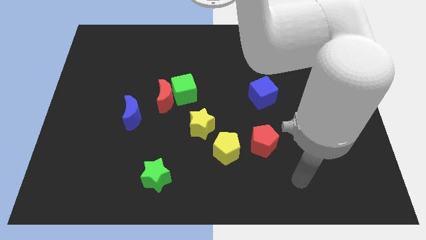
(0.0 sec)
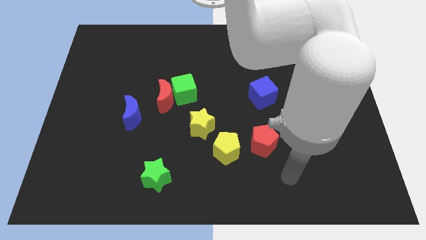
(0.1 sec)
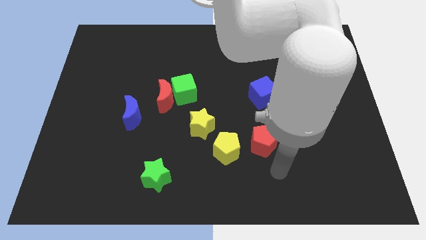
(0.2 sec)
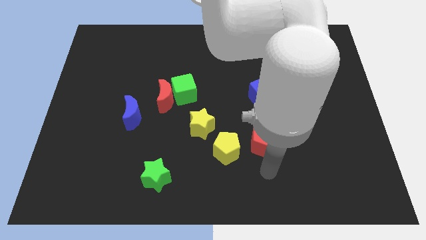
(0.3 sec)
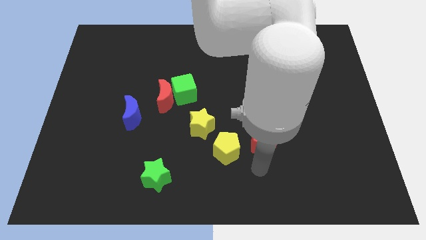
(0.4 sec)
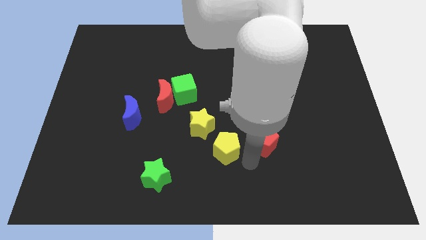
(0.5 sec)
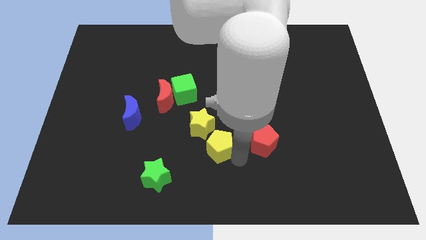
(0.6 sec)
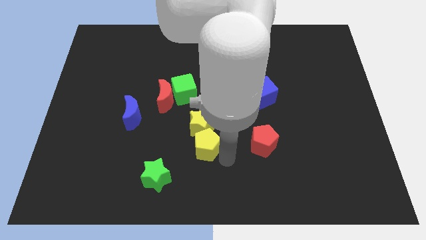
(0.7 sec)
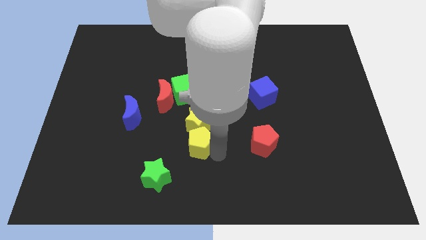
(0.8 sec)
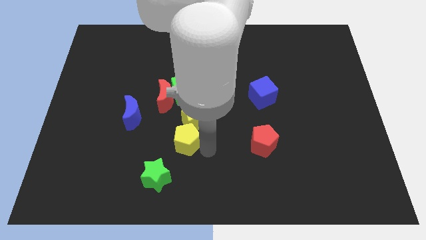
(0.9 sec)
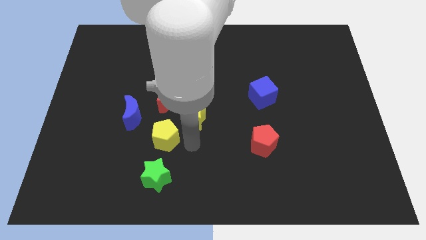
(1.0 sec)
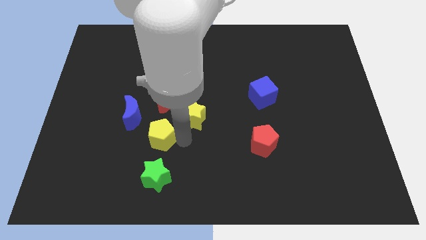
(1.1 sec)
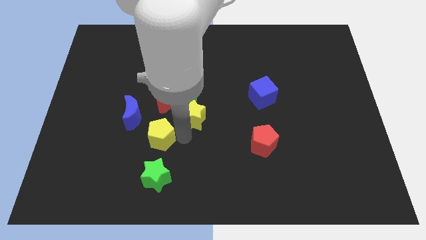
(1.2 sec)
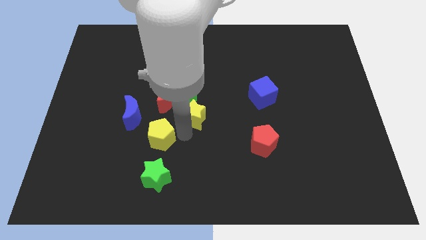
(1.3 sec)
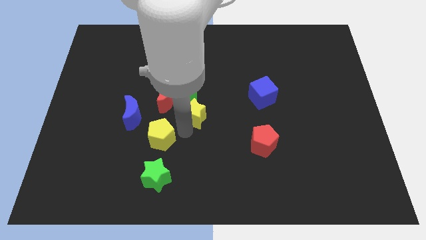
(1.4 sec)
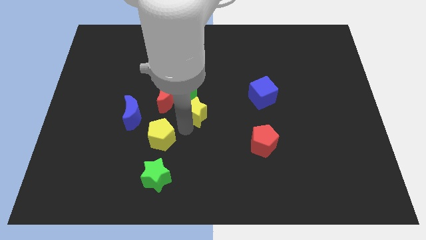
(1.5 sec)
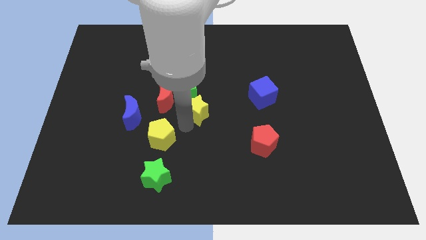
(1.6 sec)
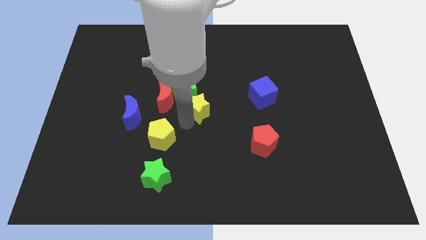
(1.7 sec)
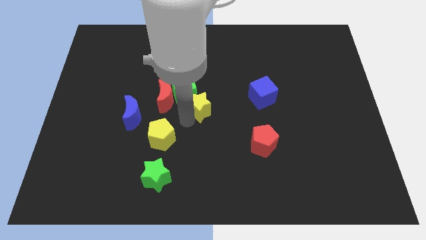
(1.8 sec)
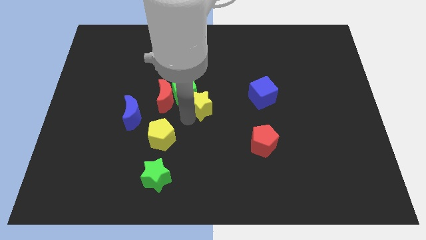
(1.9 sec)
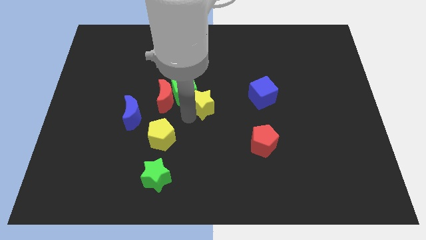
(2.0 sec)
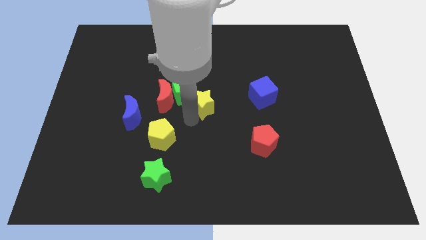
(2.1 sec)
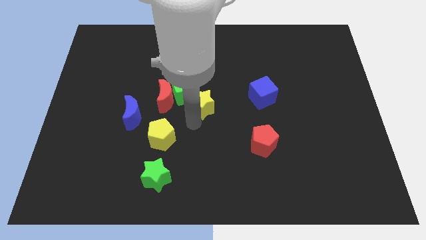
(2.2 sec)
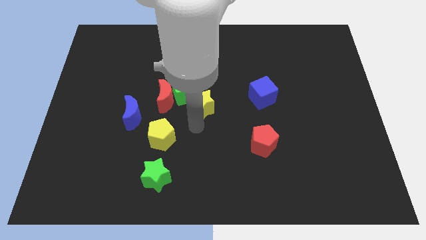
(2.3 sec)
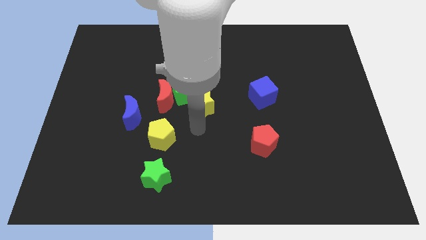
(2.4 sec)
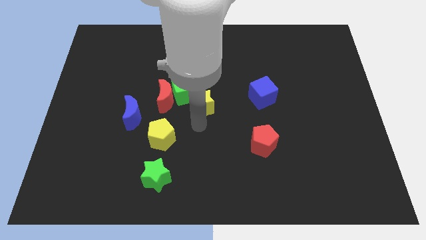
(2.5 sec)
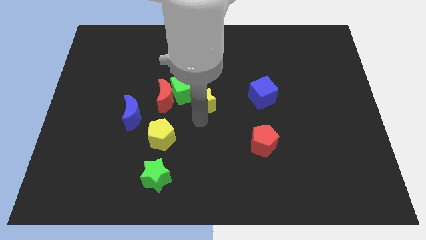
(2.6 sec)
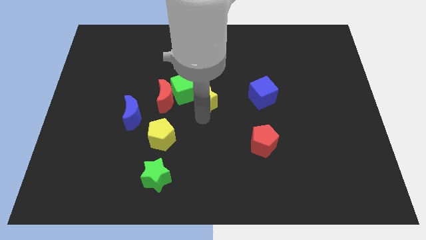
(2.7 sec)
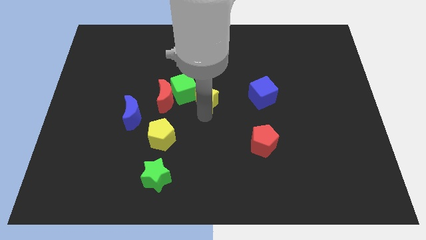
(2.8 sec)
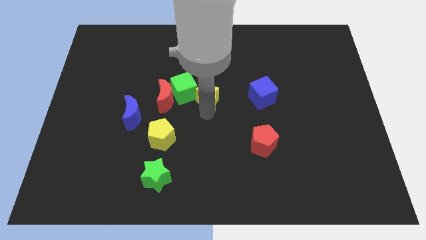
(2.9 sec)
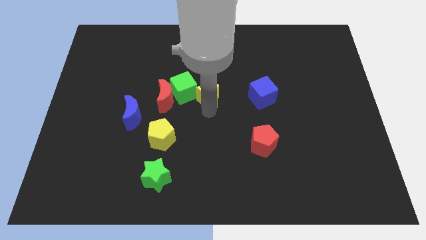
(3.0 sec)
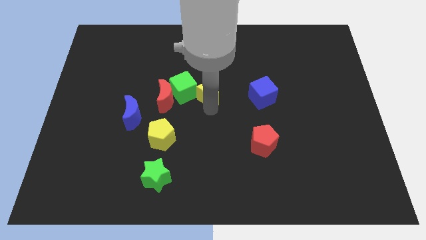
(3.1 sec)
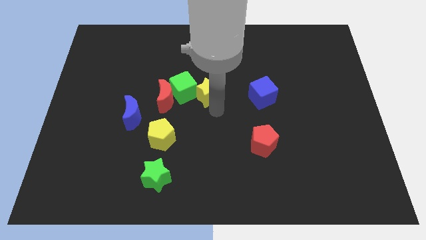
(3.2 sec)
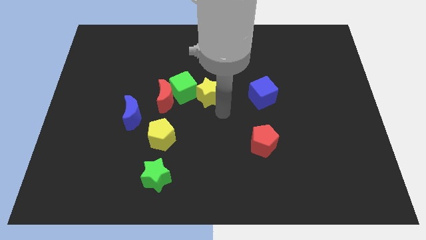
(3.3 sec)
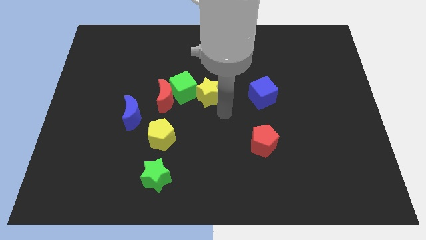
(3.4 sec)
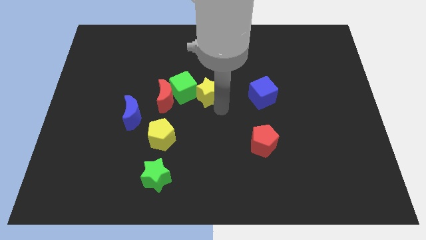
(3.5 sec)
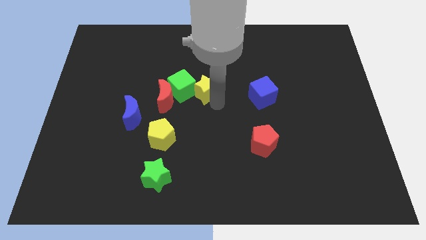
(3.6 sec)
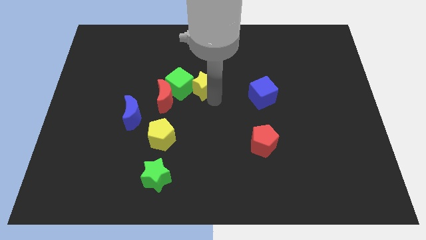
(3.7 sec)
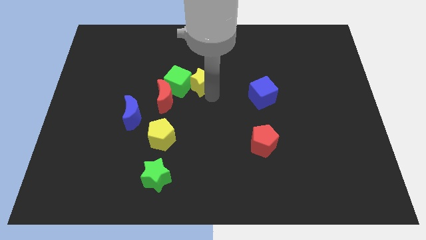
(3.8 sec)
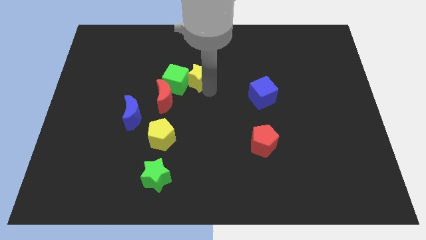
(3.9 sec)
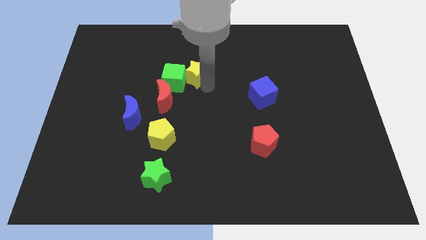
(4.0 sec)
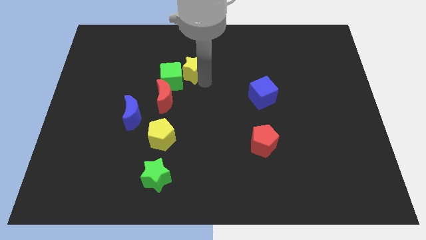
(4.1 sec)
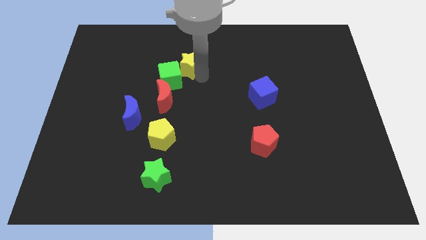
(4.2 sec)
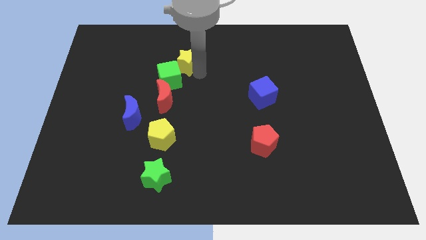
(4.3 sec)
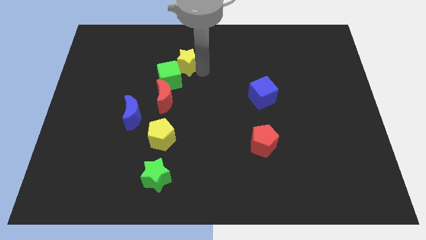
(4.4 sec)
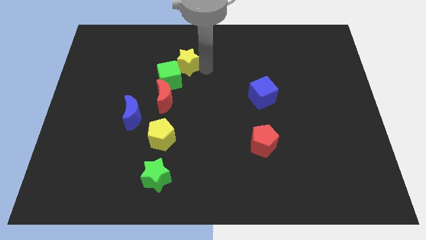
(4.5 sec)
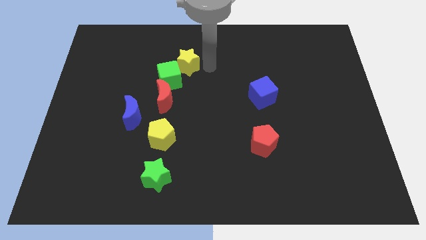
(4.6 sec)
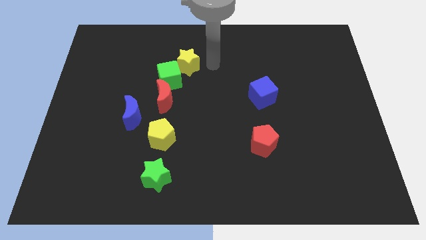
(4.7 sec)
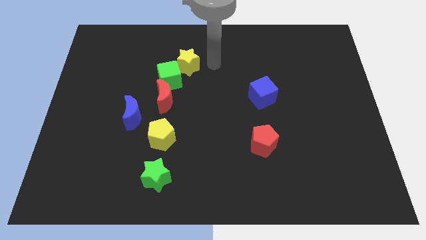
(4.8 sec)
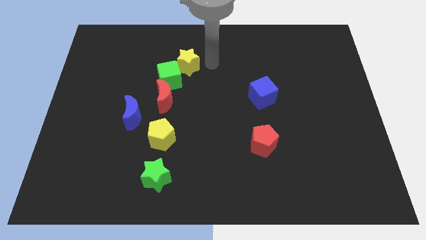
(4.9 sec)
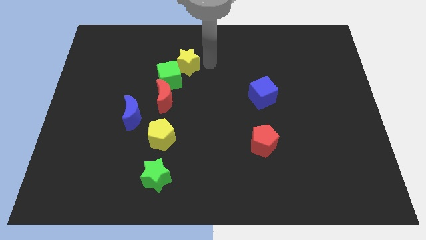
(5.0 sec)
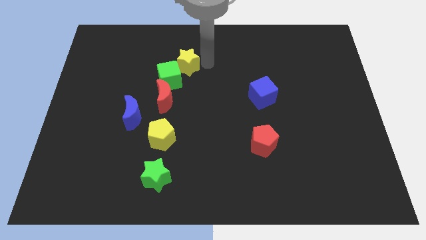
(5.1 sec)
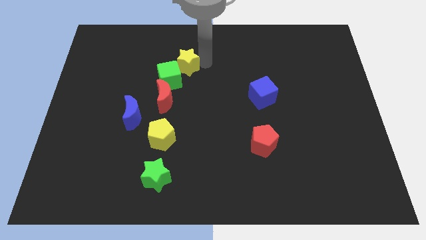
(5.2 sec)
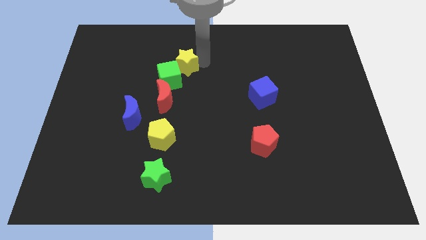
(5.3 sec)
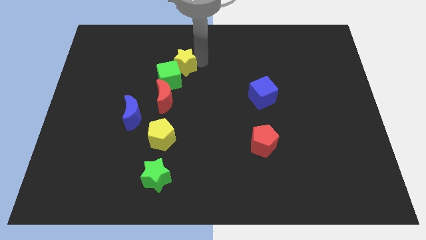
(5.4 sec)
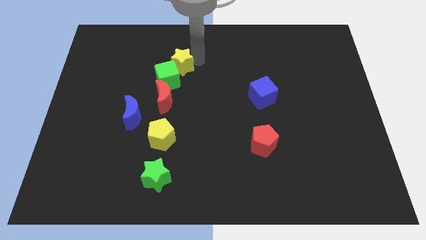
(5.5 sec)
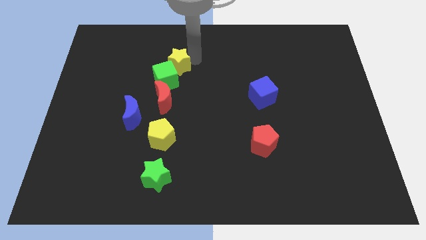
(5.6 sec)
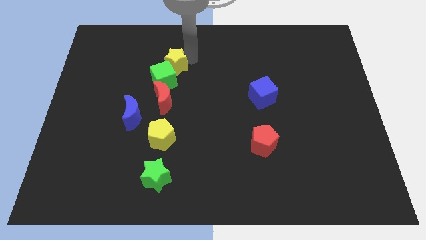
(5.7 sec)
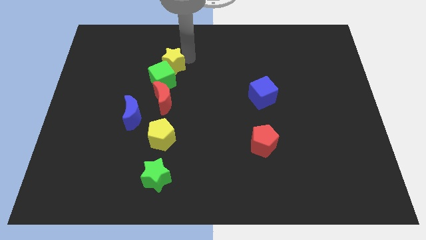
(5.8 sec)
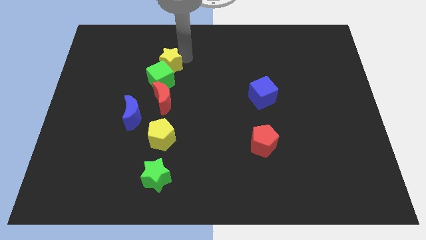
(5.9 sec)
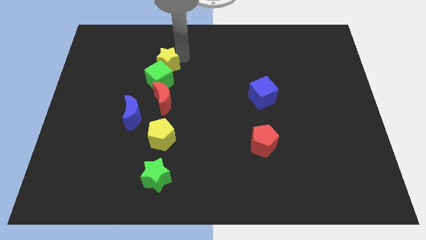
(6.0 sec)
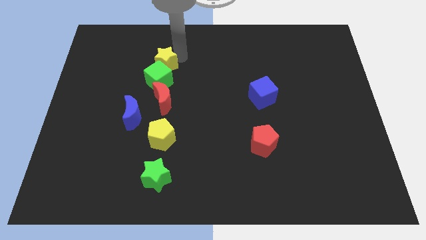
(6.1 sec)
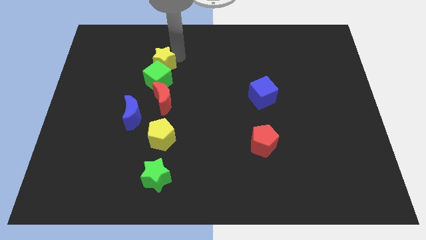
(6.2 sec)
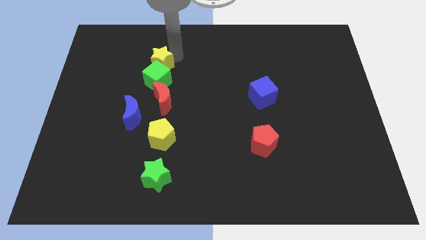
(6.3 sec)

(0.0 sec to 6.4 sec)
push the yellow star upwards and left diagonally

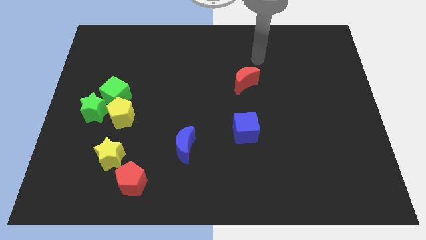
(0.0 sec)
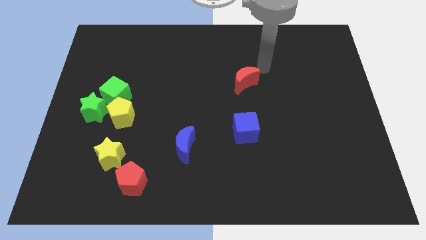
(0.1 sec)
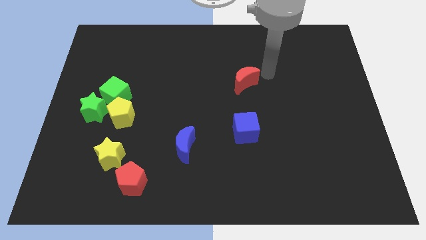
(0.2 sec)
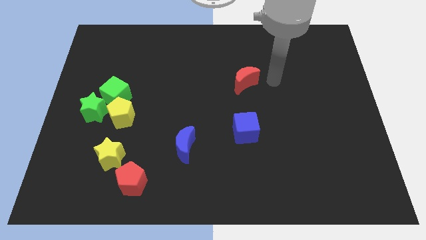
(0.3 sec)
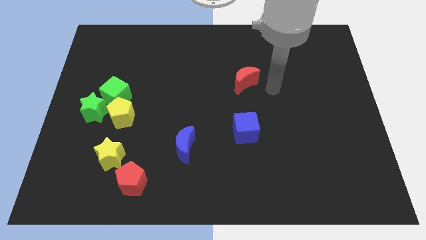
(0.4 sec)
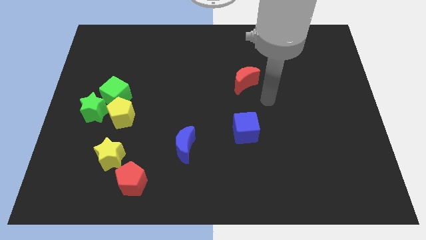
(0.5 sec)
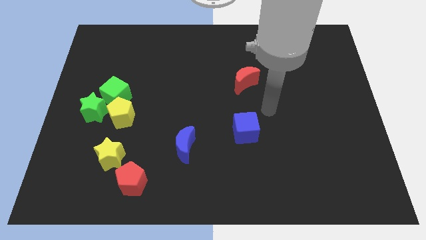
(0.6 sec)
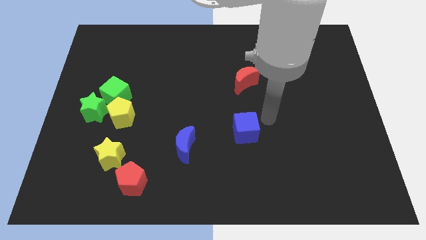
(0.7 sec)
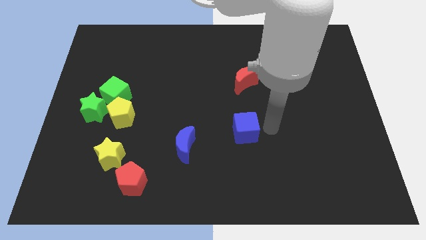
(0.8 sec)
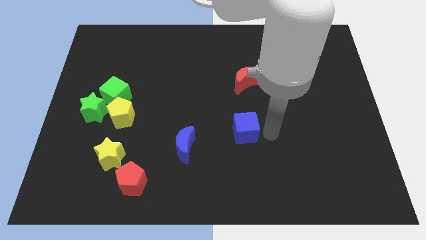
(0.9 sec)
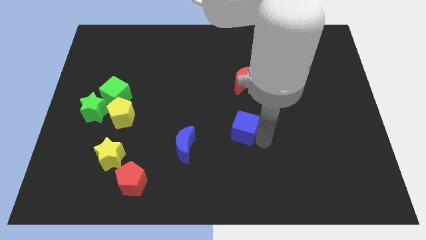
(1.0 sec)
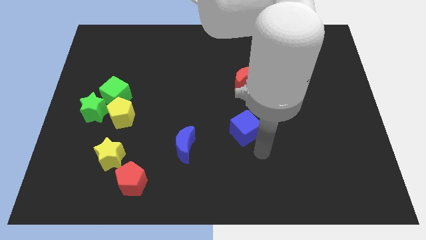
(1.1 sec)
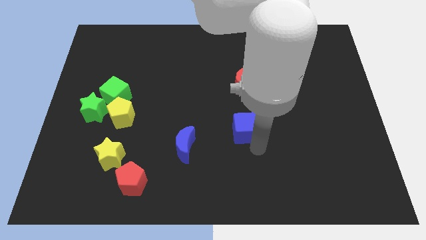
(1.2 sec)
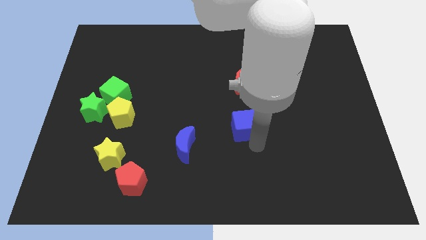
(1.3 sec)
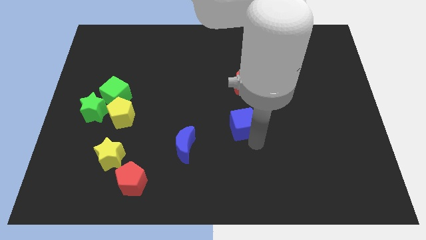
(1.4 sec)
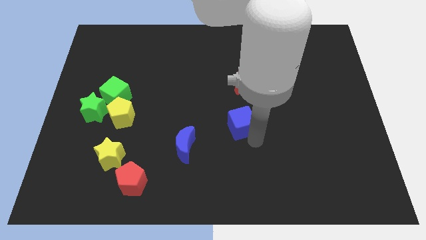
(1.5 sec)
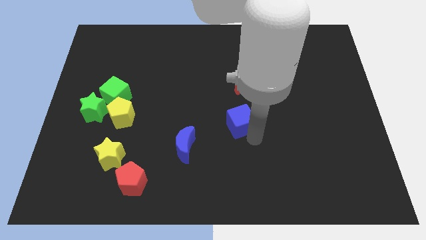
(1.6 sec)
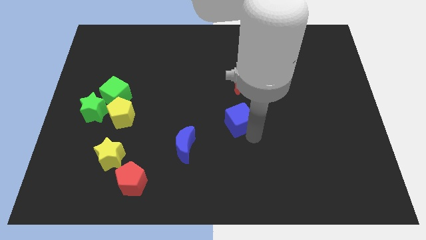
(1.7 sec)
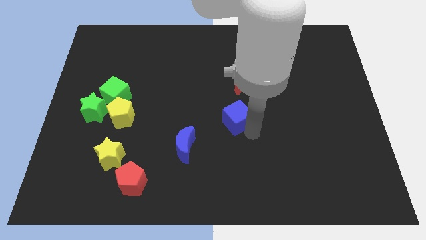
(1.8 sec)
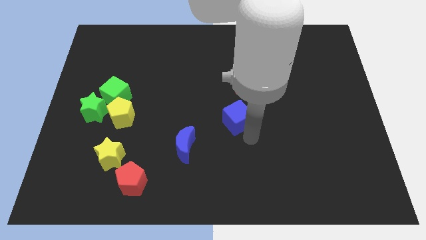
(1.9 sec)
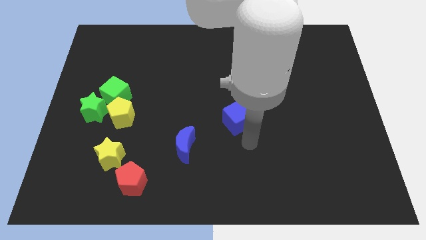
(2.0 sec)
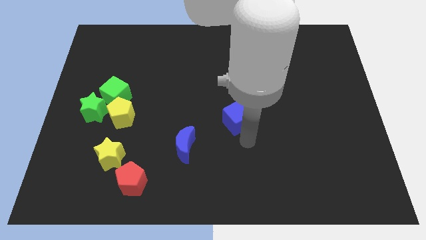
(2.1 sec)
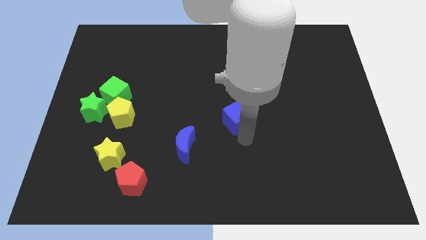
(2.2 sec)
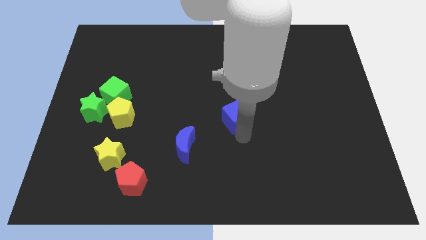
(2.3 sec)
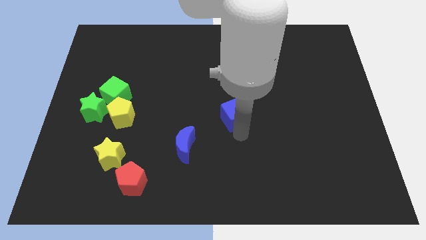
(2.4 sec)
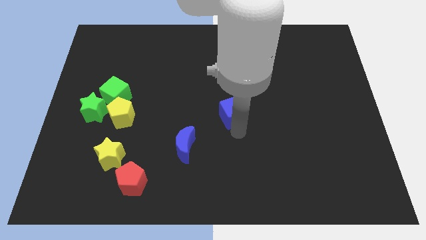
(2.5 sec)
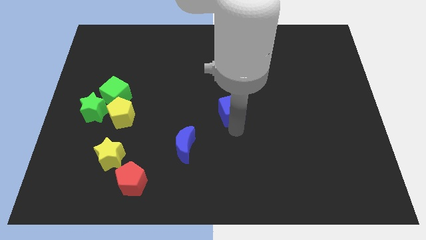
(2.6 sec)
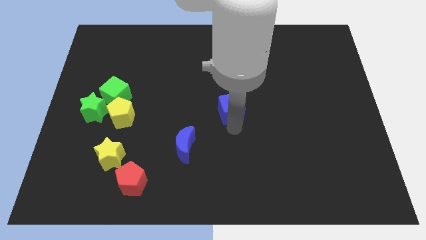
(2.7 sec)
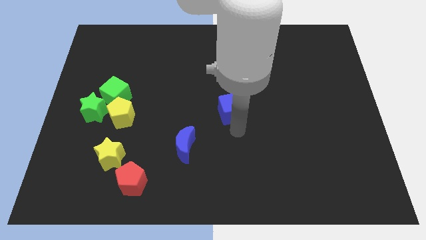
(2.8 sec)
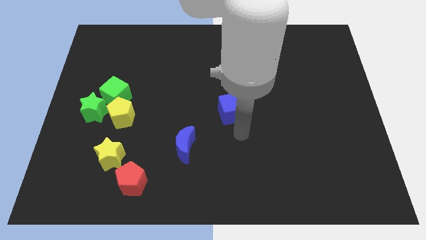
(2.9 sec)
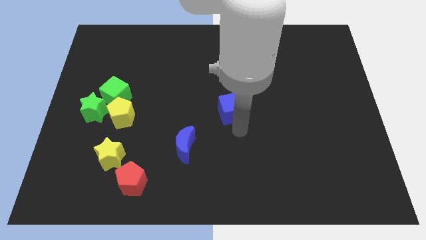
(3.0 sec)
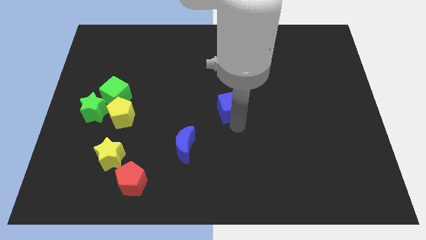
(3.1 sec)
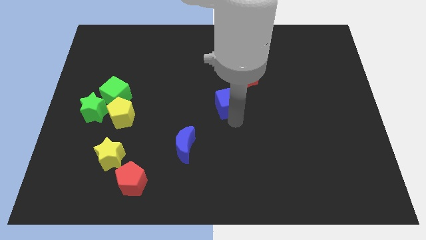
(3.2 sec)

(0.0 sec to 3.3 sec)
move the blue cube slightly up
